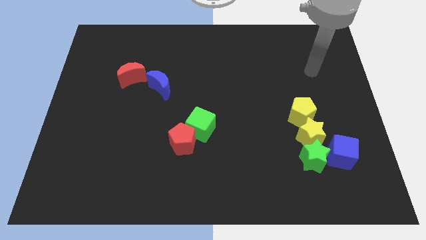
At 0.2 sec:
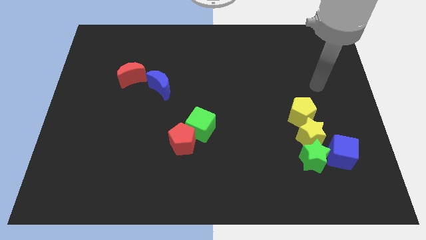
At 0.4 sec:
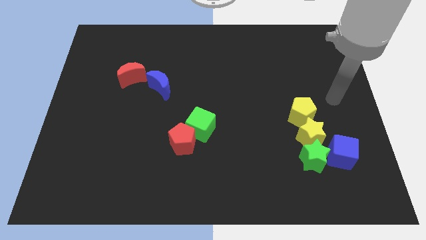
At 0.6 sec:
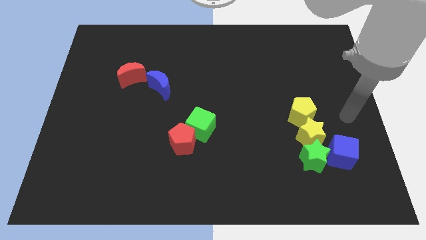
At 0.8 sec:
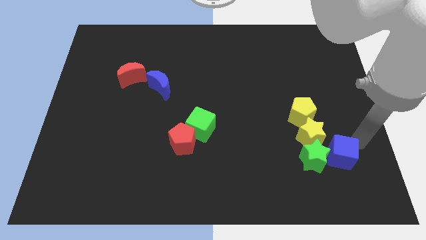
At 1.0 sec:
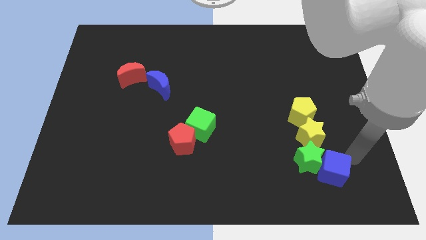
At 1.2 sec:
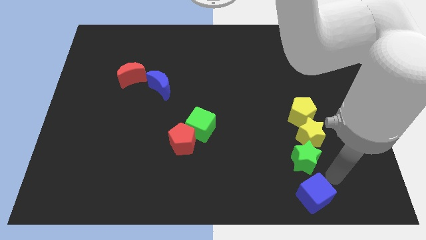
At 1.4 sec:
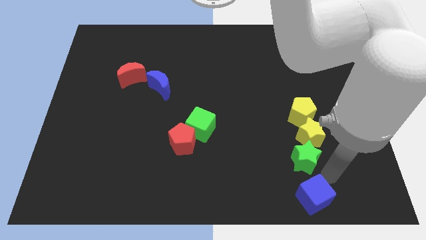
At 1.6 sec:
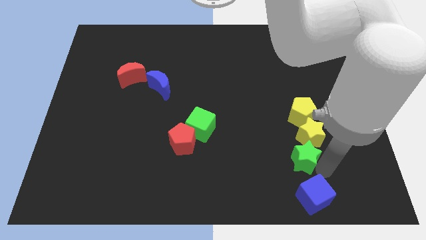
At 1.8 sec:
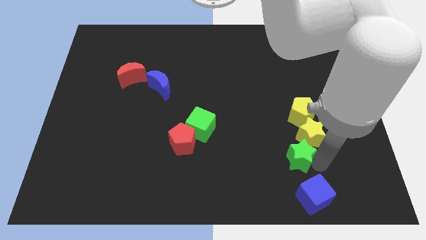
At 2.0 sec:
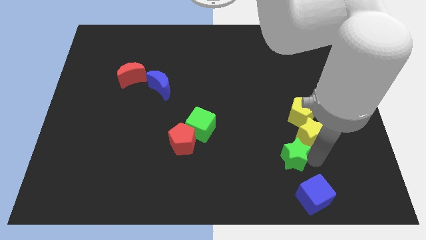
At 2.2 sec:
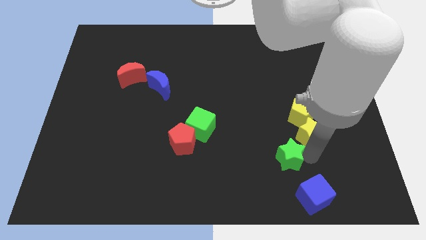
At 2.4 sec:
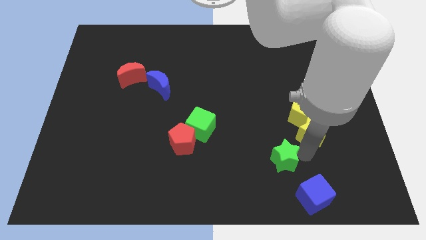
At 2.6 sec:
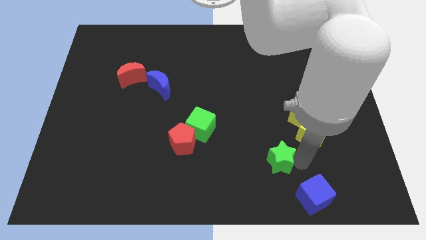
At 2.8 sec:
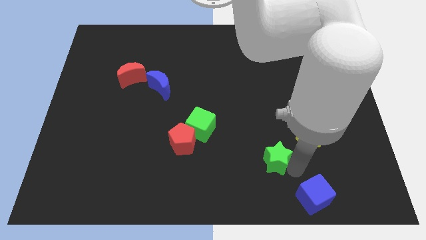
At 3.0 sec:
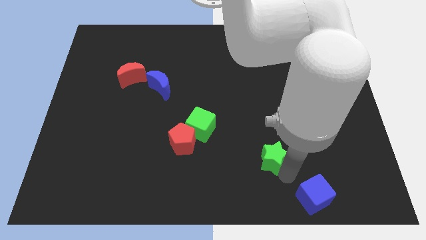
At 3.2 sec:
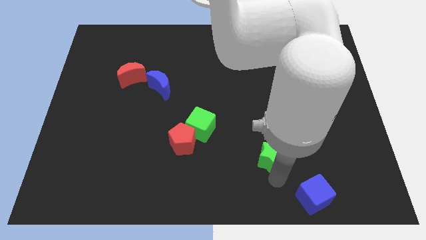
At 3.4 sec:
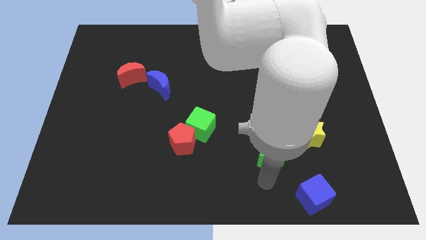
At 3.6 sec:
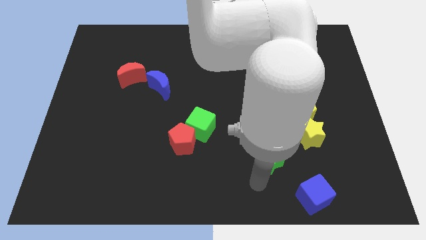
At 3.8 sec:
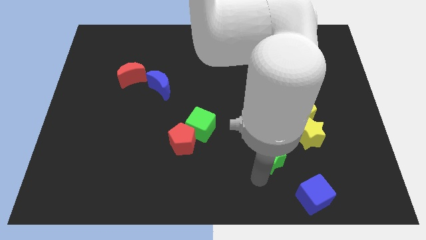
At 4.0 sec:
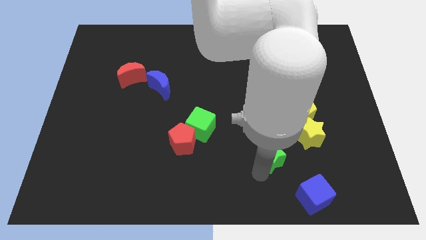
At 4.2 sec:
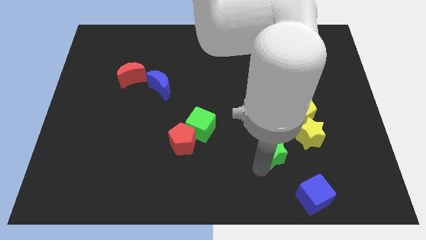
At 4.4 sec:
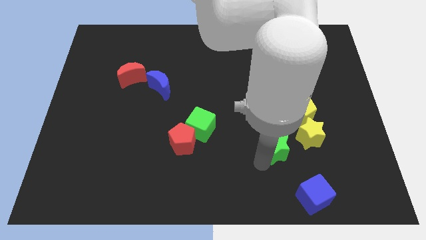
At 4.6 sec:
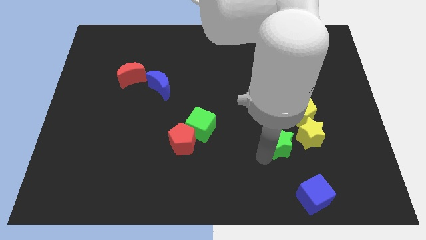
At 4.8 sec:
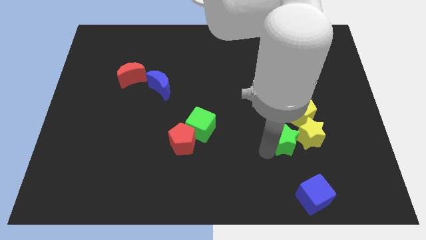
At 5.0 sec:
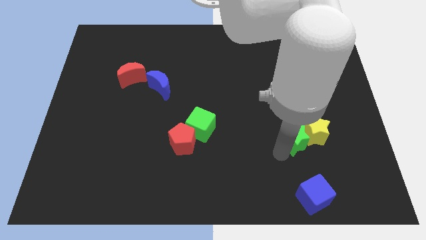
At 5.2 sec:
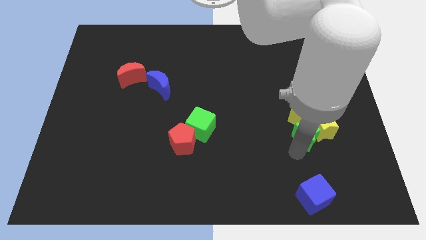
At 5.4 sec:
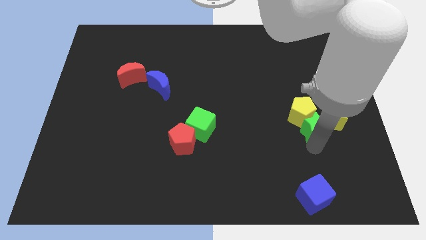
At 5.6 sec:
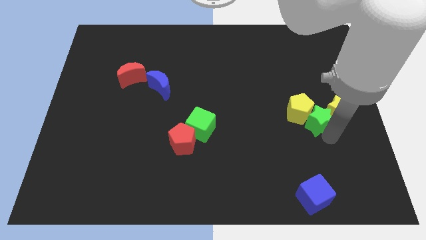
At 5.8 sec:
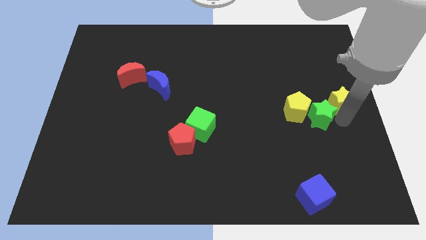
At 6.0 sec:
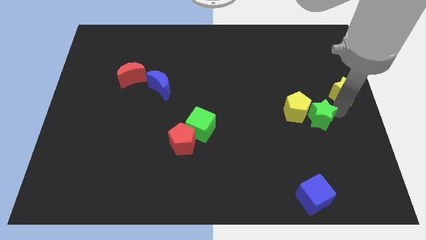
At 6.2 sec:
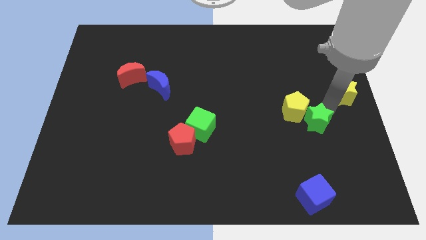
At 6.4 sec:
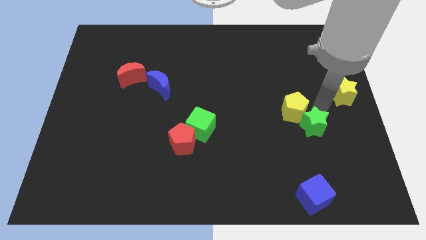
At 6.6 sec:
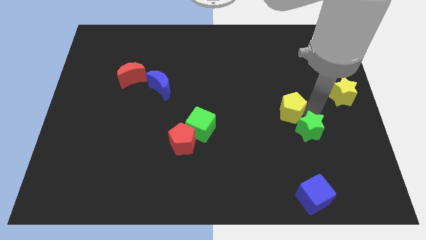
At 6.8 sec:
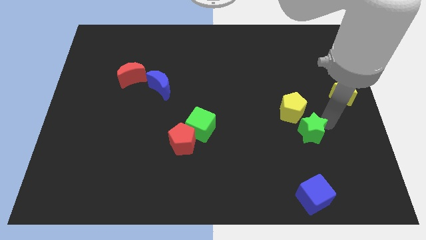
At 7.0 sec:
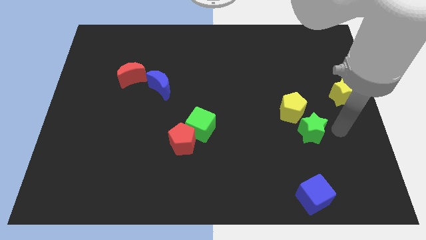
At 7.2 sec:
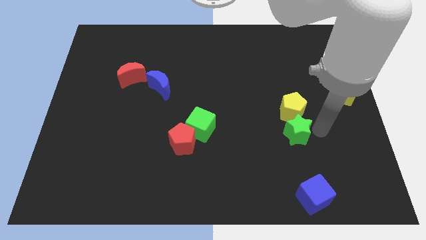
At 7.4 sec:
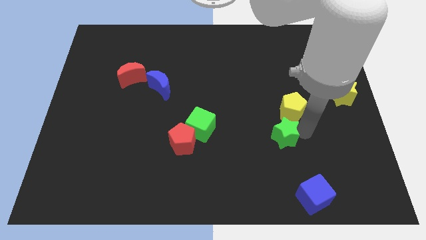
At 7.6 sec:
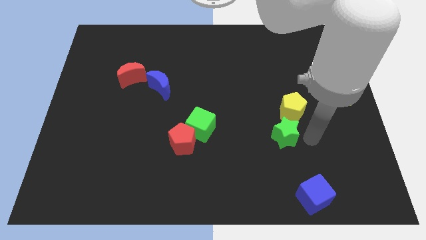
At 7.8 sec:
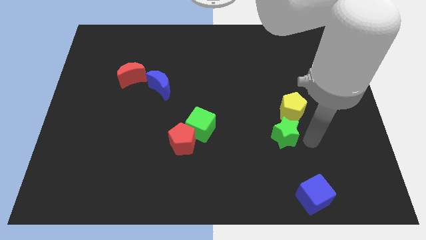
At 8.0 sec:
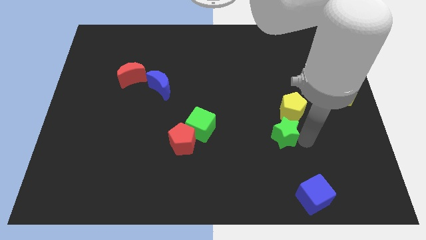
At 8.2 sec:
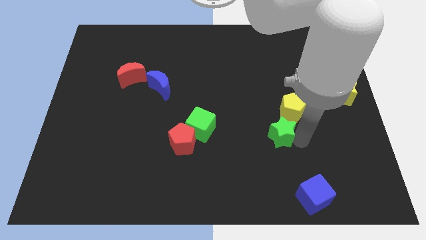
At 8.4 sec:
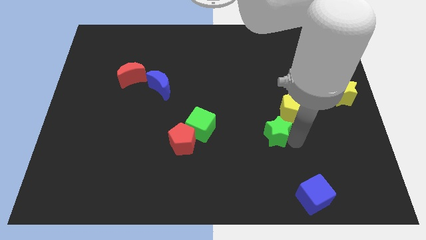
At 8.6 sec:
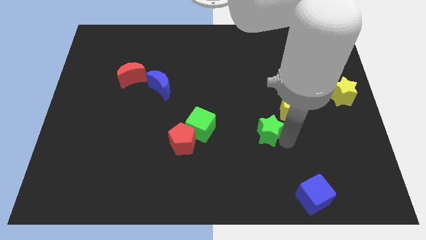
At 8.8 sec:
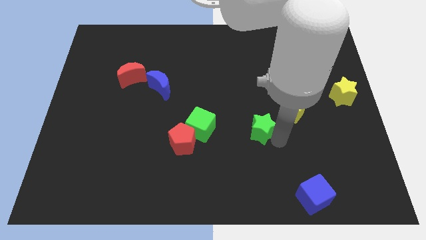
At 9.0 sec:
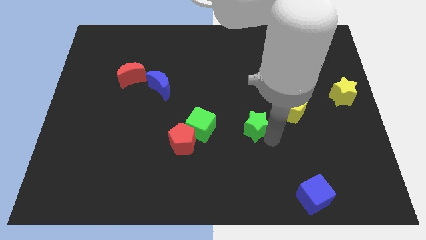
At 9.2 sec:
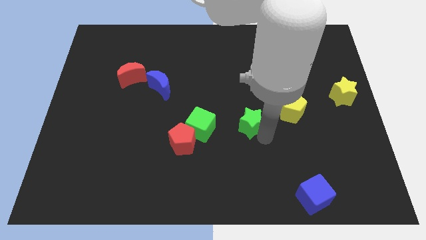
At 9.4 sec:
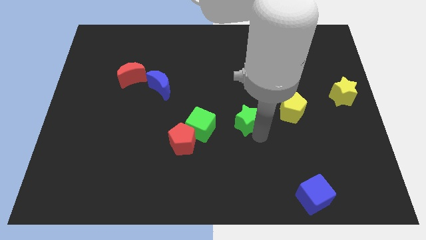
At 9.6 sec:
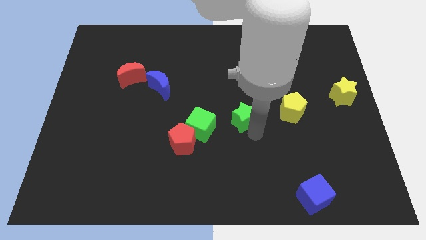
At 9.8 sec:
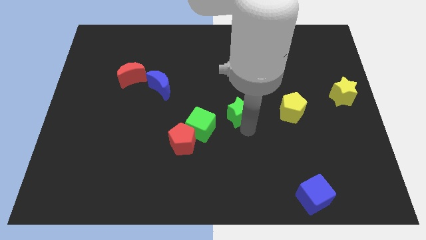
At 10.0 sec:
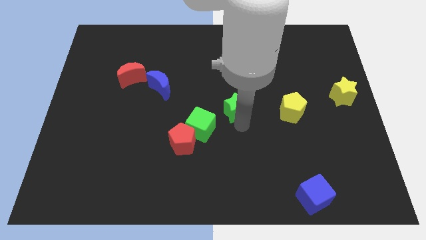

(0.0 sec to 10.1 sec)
move the green star up and left

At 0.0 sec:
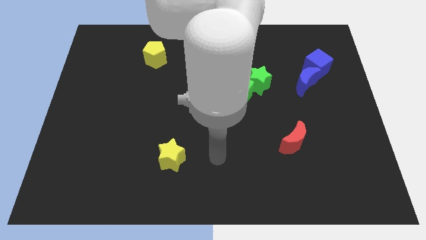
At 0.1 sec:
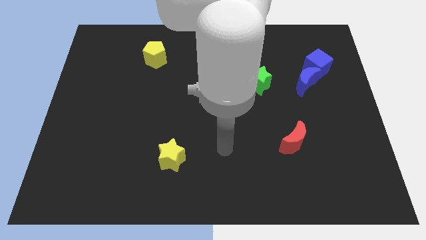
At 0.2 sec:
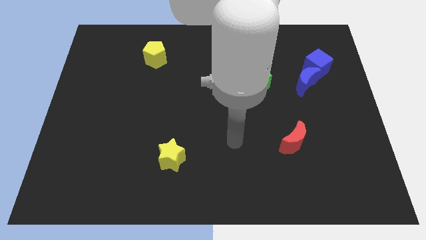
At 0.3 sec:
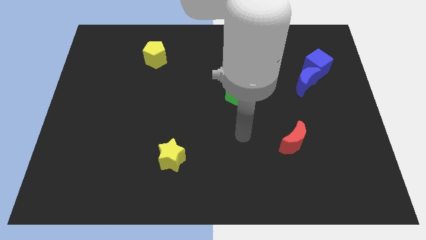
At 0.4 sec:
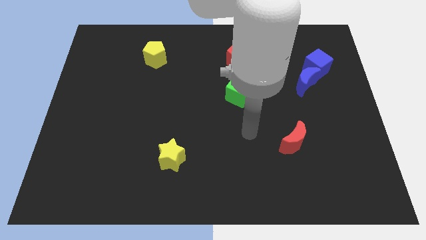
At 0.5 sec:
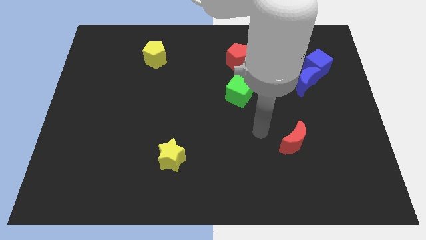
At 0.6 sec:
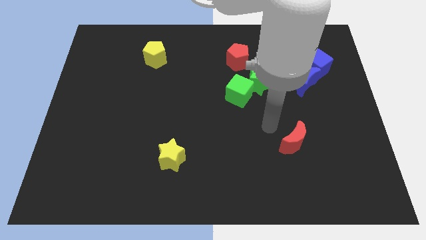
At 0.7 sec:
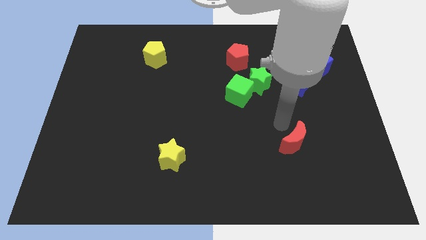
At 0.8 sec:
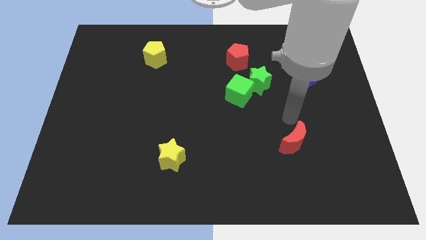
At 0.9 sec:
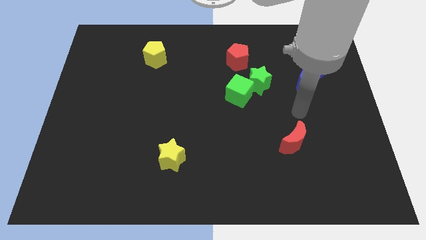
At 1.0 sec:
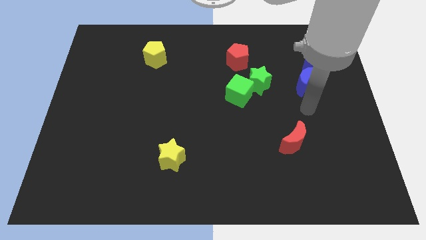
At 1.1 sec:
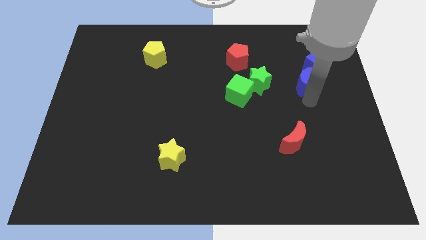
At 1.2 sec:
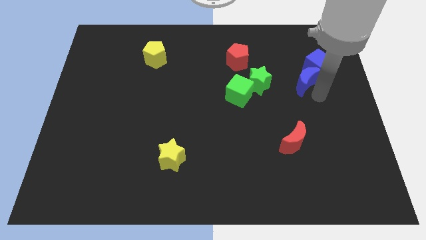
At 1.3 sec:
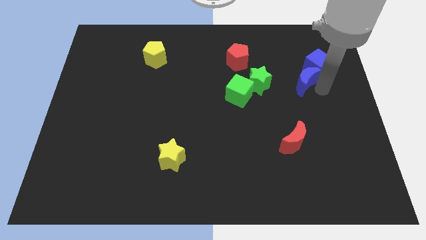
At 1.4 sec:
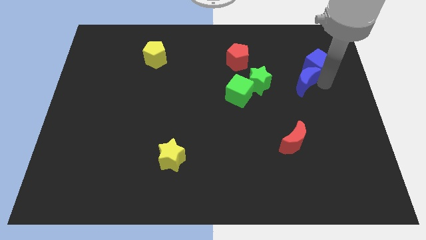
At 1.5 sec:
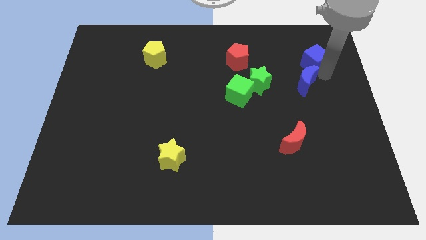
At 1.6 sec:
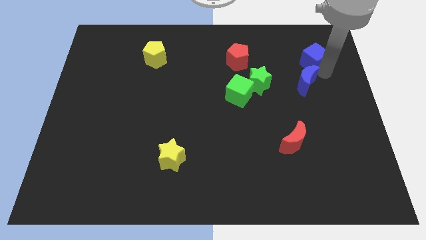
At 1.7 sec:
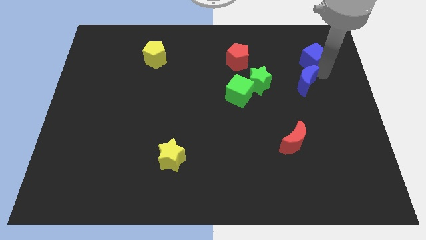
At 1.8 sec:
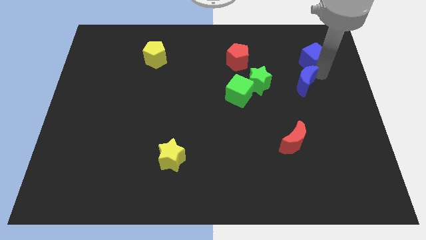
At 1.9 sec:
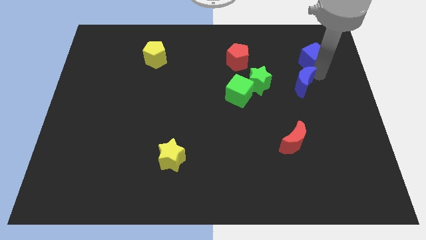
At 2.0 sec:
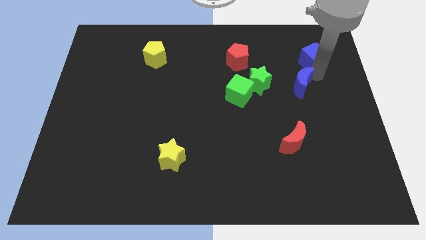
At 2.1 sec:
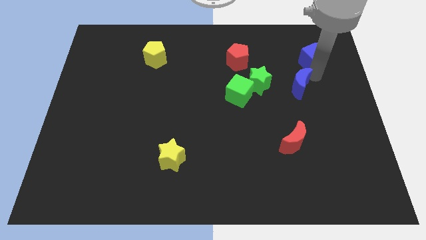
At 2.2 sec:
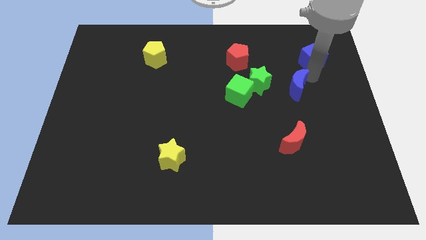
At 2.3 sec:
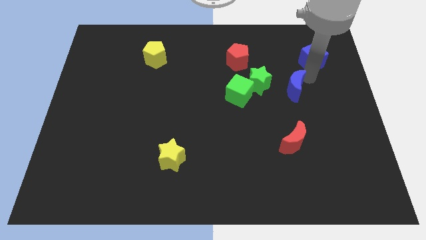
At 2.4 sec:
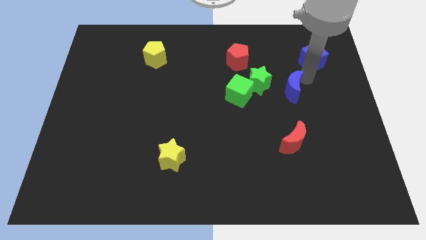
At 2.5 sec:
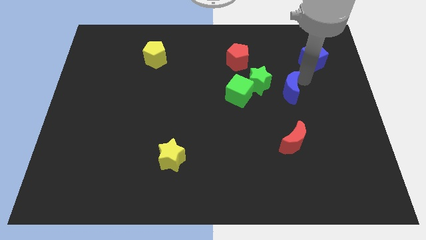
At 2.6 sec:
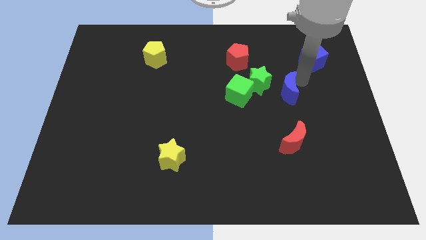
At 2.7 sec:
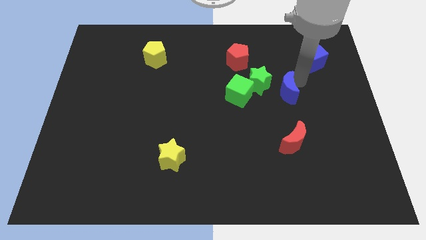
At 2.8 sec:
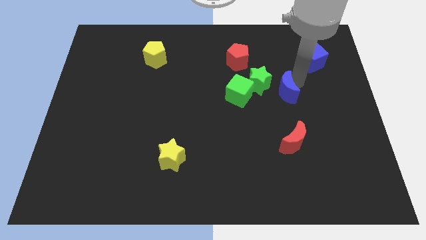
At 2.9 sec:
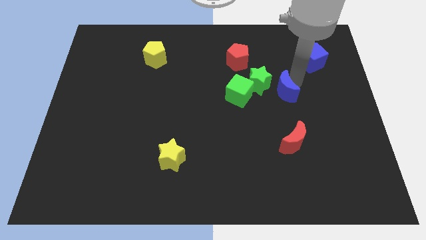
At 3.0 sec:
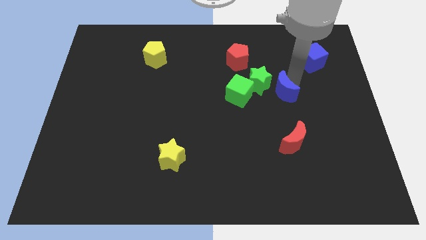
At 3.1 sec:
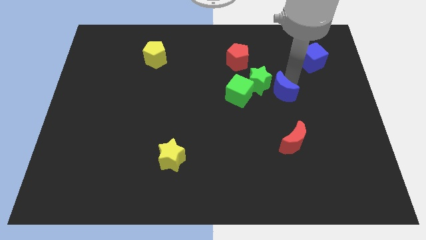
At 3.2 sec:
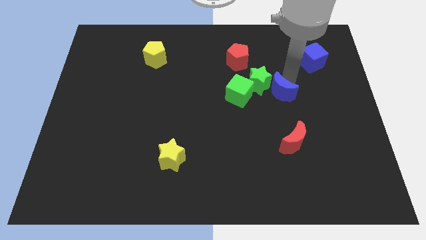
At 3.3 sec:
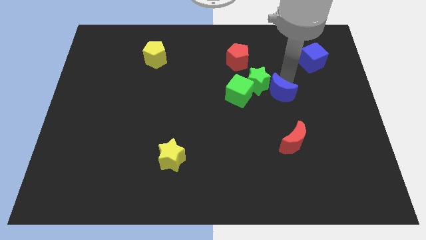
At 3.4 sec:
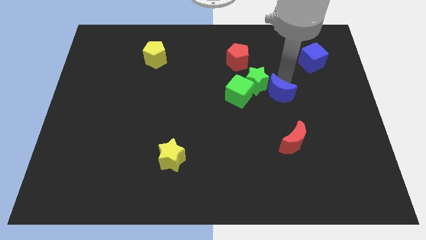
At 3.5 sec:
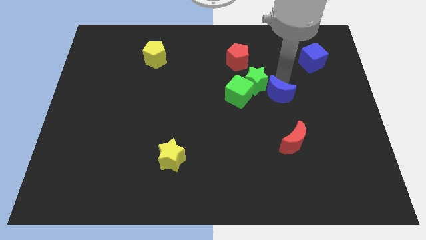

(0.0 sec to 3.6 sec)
move the blue moon a little bit left
